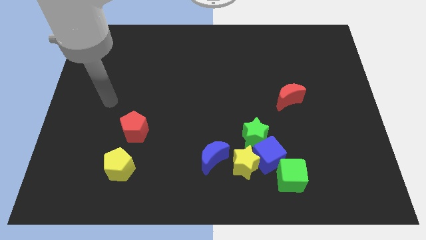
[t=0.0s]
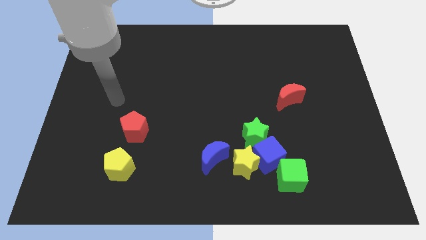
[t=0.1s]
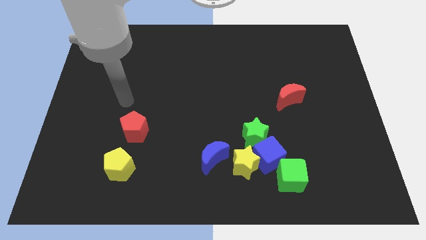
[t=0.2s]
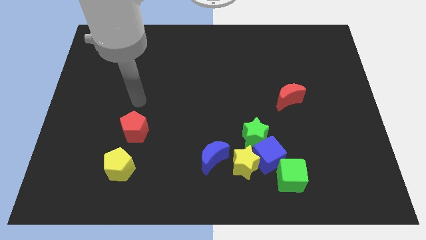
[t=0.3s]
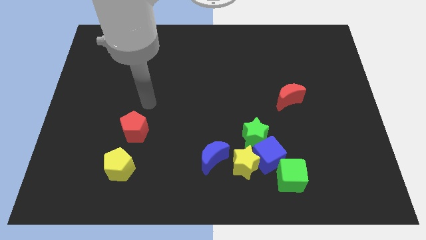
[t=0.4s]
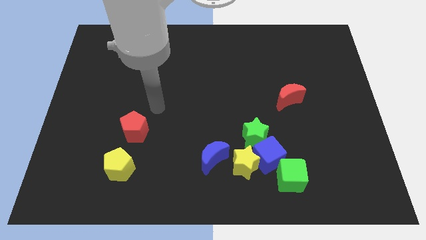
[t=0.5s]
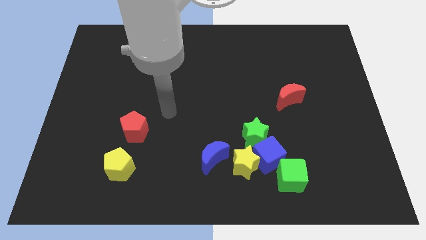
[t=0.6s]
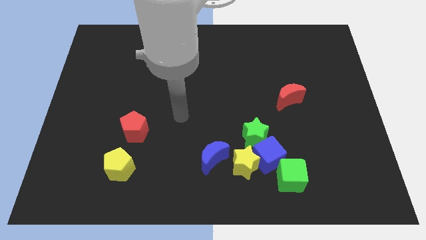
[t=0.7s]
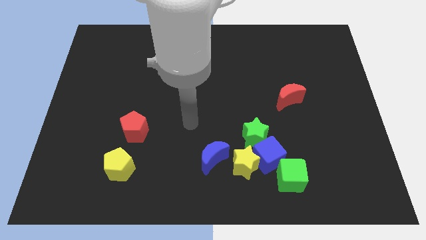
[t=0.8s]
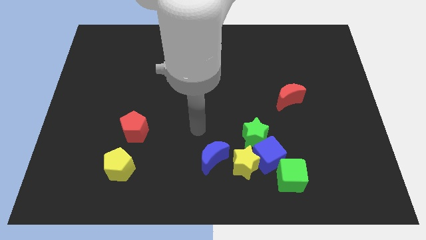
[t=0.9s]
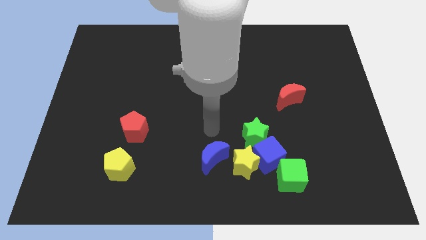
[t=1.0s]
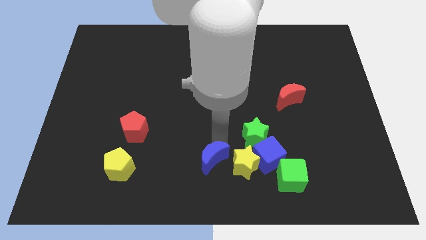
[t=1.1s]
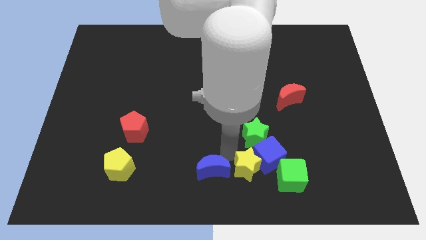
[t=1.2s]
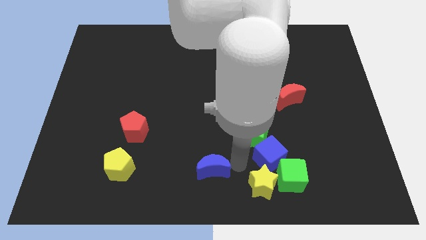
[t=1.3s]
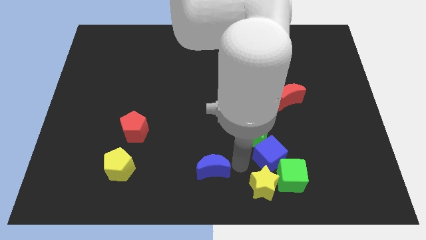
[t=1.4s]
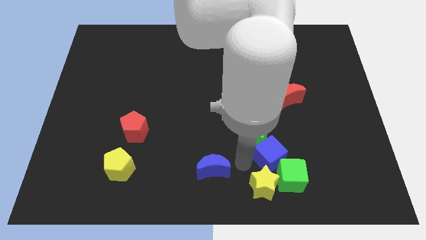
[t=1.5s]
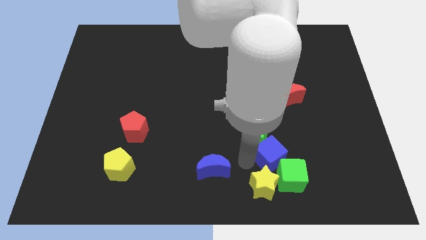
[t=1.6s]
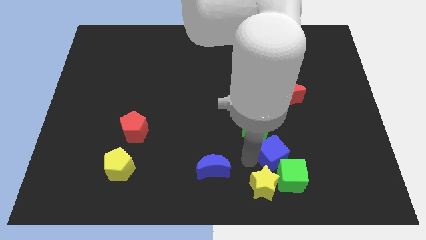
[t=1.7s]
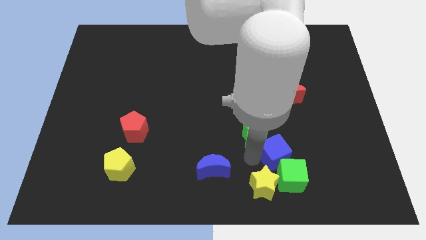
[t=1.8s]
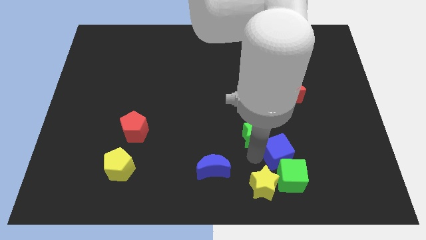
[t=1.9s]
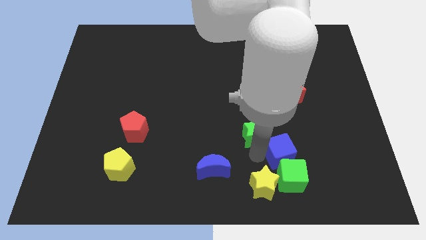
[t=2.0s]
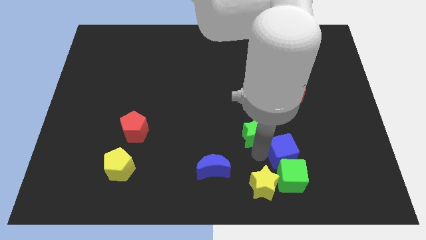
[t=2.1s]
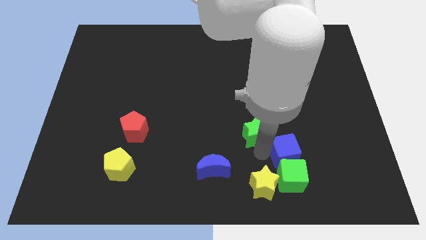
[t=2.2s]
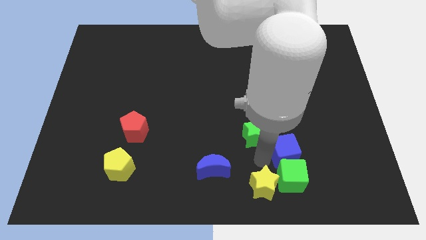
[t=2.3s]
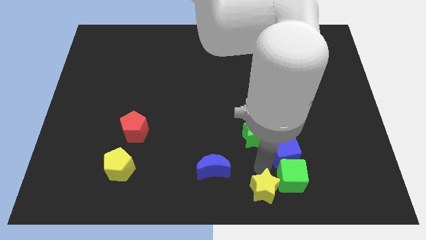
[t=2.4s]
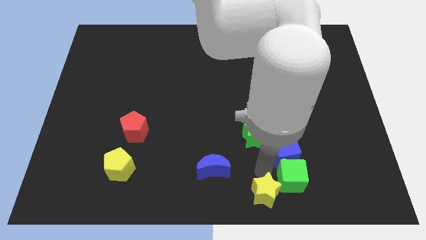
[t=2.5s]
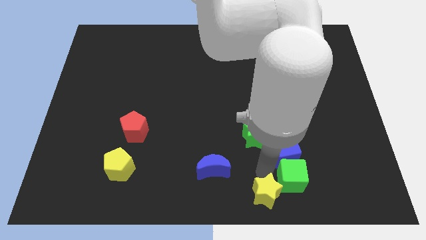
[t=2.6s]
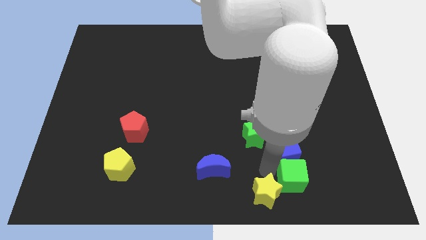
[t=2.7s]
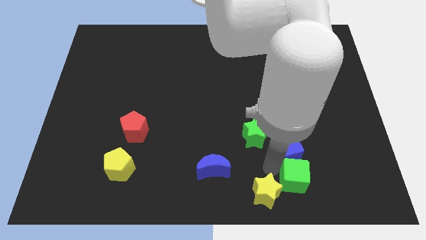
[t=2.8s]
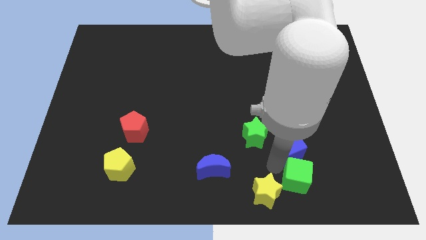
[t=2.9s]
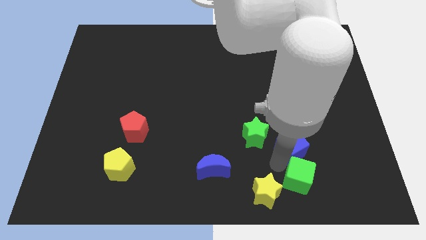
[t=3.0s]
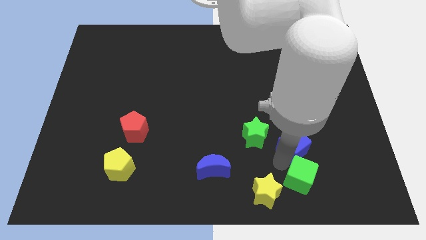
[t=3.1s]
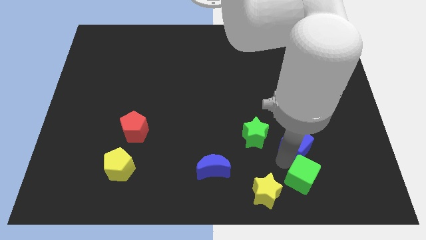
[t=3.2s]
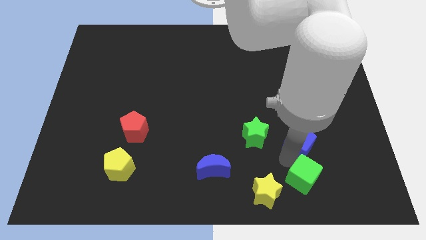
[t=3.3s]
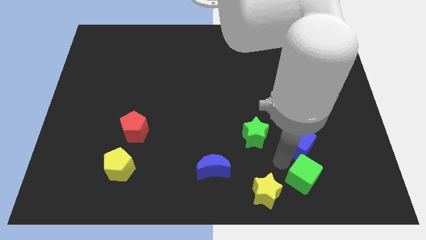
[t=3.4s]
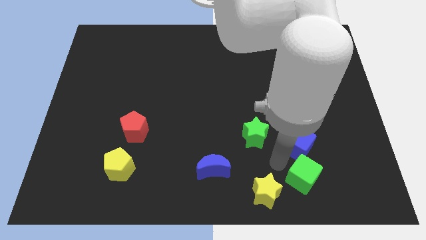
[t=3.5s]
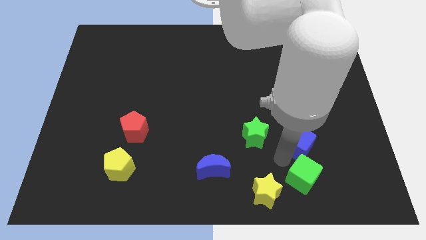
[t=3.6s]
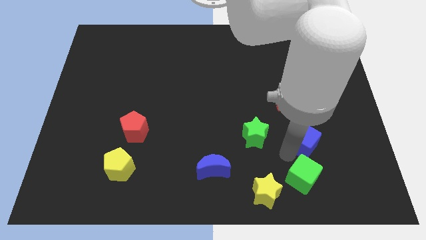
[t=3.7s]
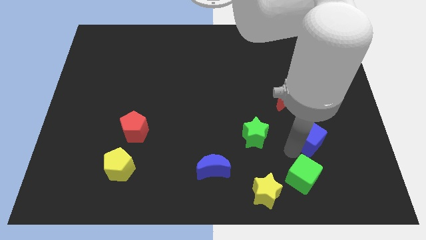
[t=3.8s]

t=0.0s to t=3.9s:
separate the blue cube from the yellow star, green star, and green cube

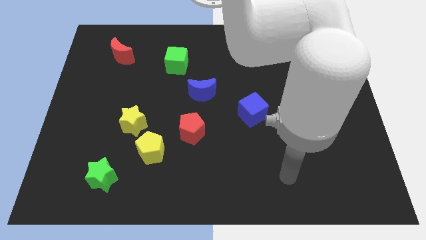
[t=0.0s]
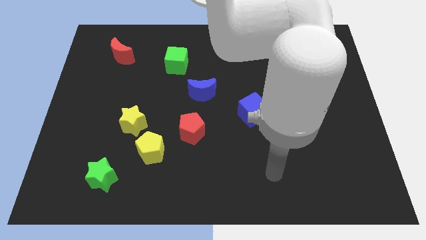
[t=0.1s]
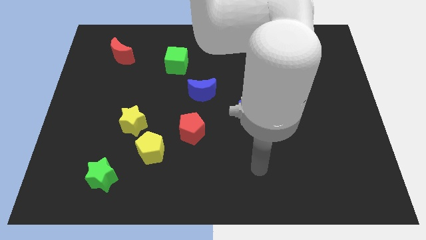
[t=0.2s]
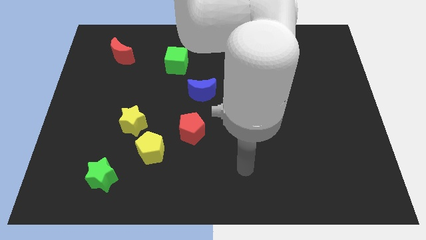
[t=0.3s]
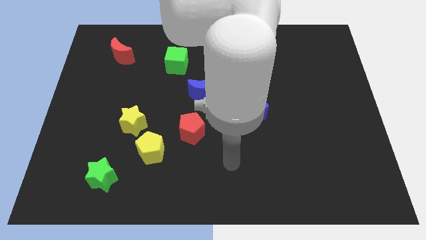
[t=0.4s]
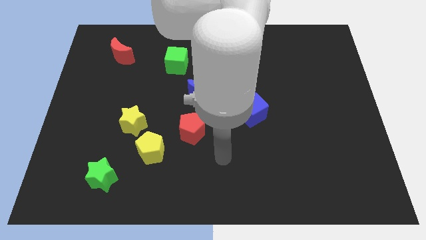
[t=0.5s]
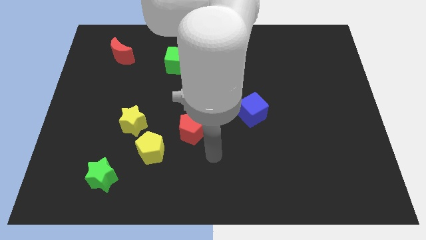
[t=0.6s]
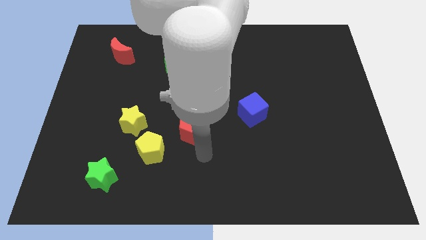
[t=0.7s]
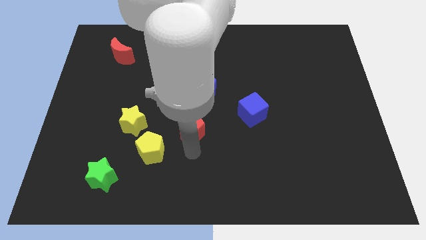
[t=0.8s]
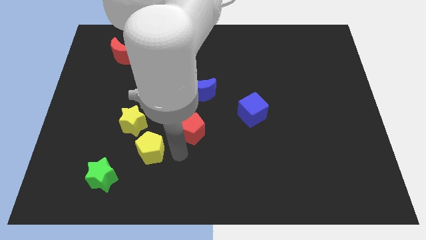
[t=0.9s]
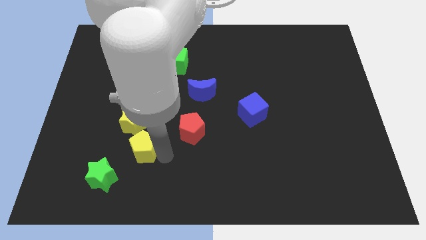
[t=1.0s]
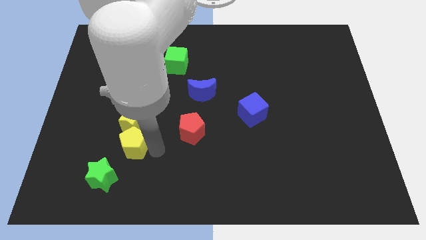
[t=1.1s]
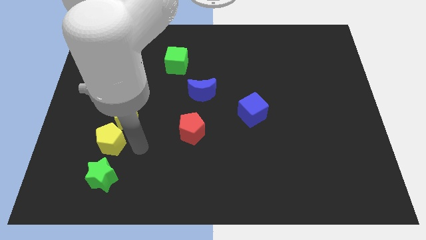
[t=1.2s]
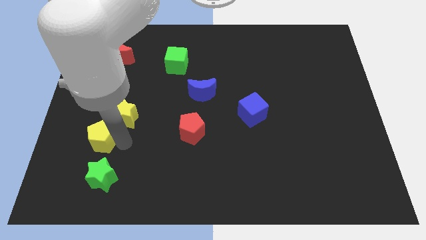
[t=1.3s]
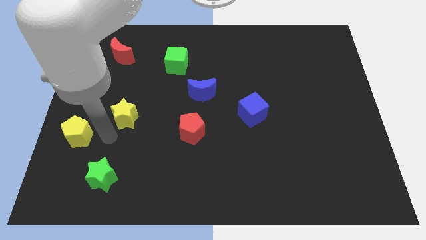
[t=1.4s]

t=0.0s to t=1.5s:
separate the yellow star from the yellow pentagon

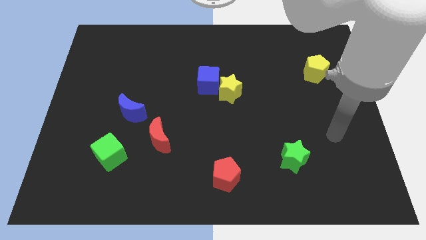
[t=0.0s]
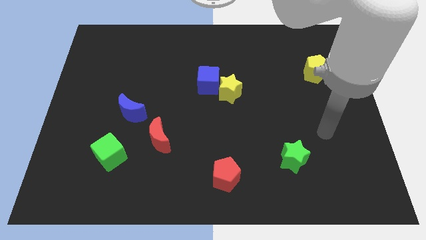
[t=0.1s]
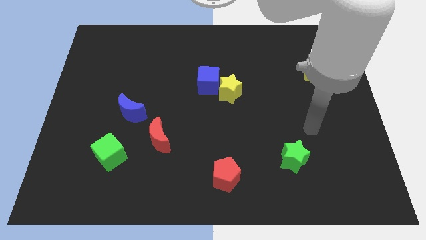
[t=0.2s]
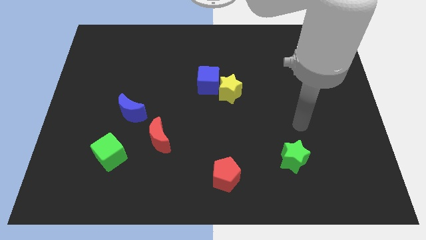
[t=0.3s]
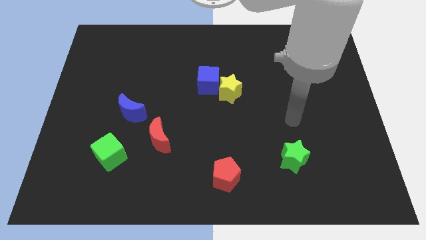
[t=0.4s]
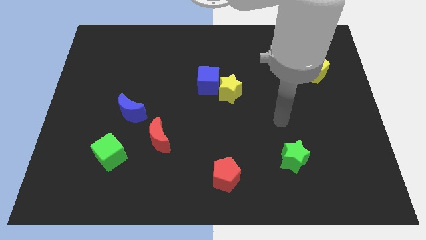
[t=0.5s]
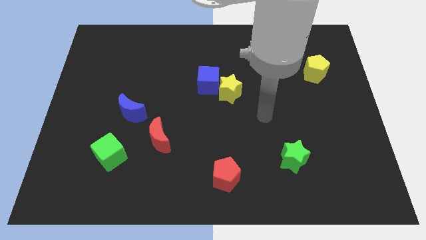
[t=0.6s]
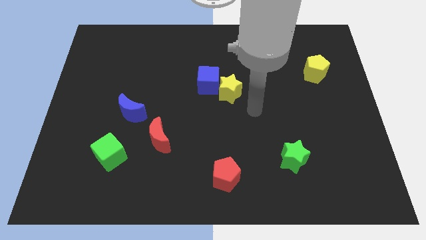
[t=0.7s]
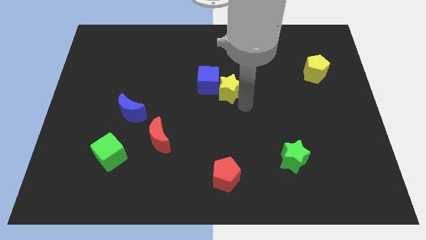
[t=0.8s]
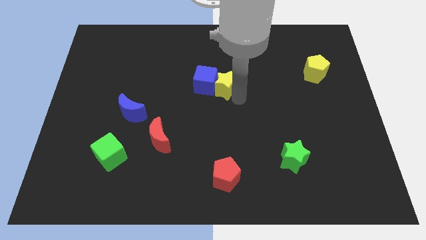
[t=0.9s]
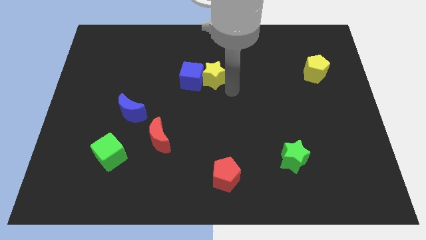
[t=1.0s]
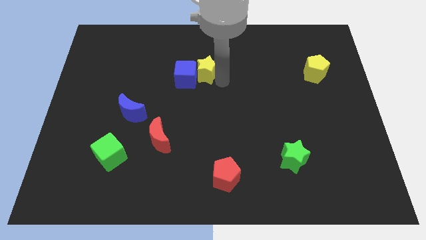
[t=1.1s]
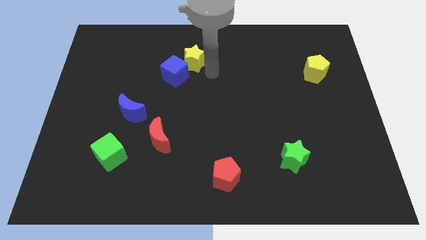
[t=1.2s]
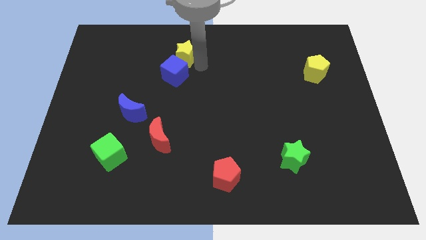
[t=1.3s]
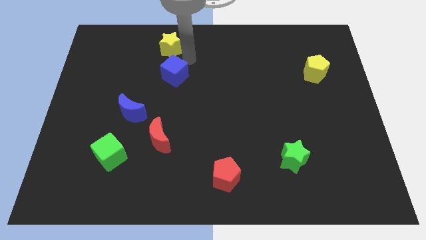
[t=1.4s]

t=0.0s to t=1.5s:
pull the blue cube apart from the yellow star

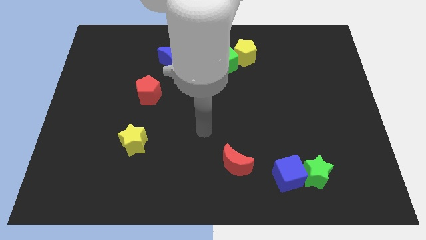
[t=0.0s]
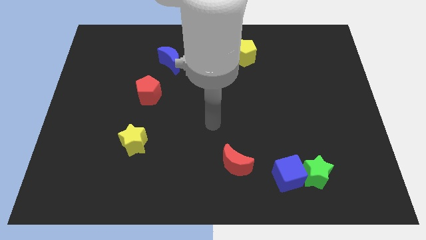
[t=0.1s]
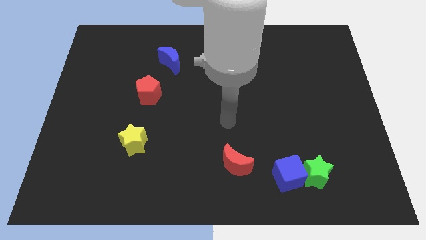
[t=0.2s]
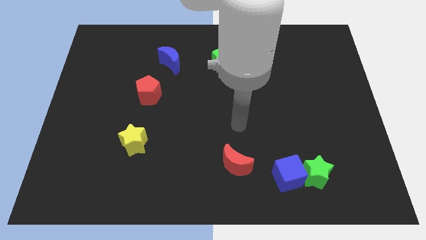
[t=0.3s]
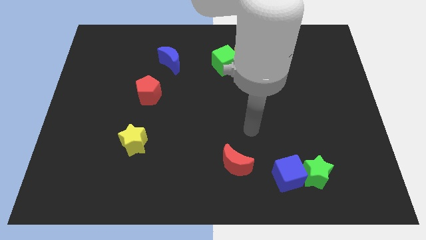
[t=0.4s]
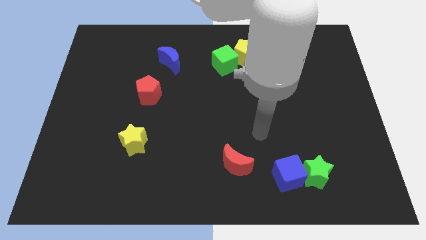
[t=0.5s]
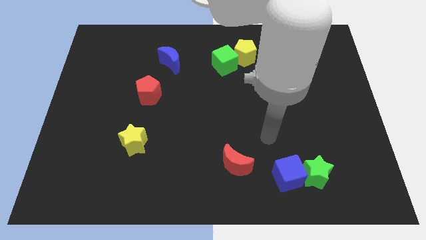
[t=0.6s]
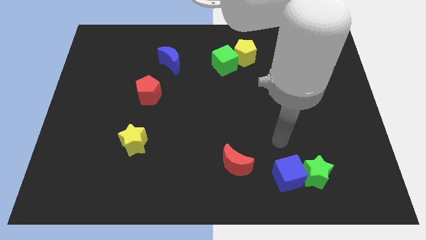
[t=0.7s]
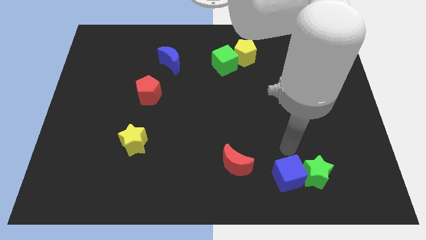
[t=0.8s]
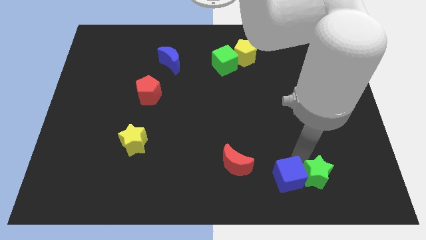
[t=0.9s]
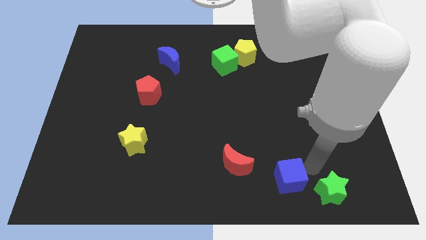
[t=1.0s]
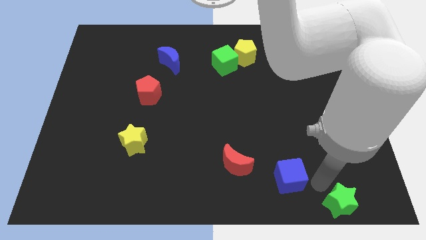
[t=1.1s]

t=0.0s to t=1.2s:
move the blue cube away from the green star

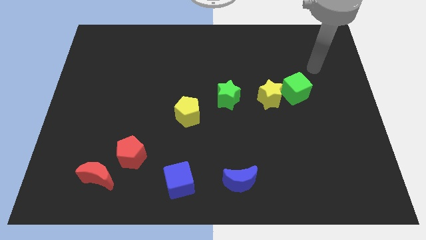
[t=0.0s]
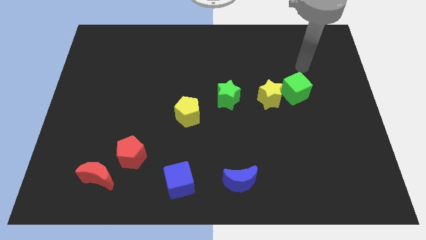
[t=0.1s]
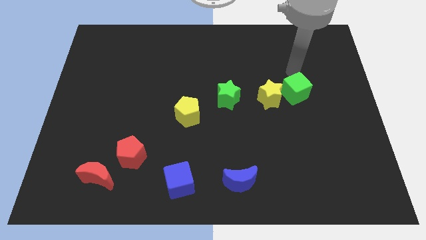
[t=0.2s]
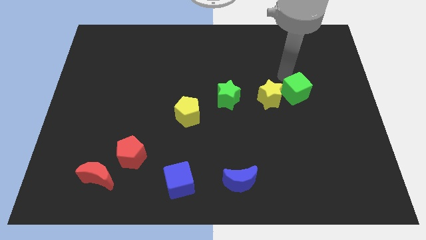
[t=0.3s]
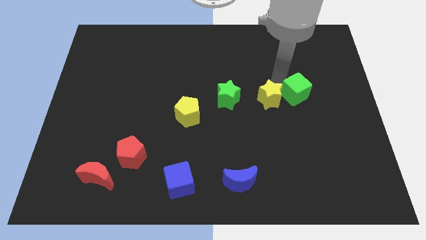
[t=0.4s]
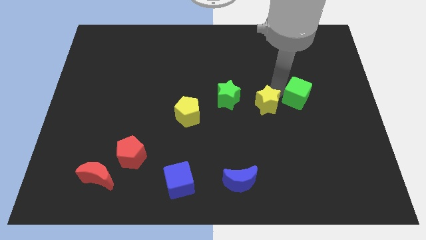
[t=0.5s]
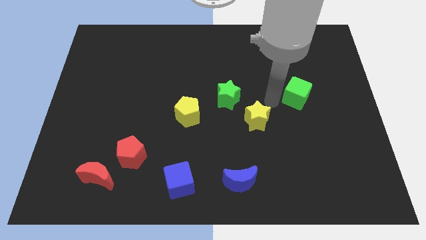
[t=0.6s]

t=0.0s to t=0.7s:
pull the green cube apart from the yellow star

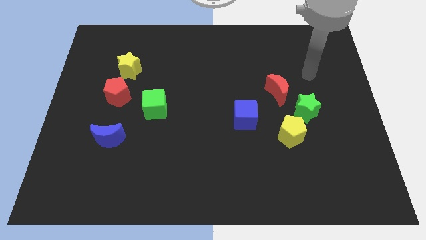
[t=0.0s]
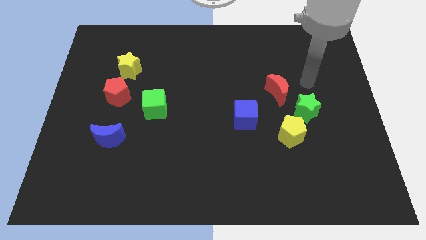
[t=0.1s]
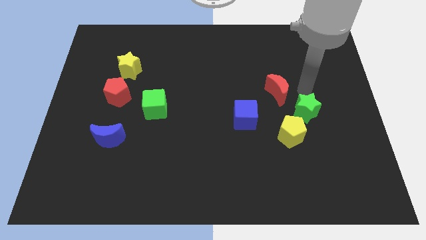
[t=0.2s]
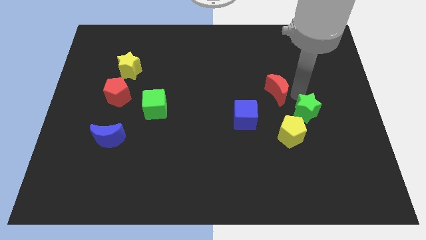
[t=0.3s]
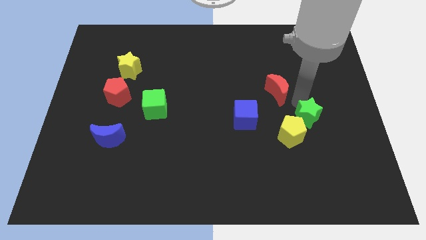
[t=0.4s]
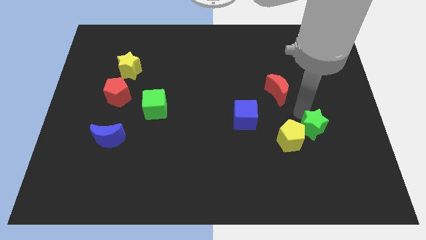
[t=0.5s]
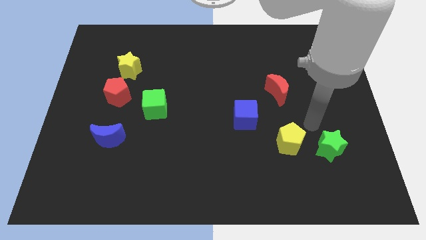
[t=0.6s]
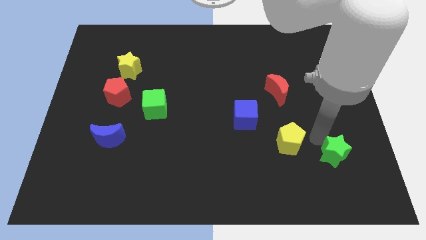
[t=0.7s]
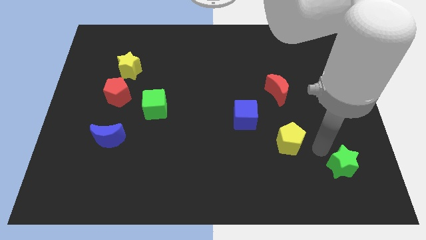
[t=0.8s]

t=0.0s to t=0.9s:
separate the yellow pentagon from the green star
